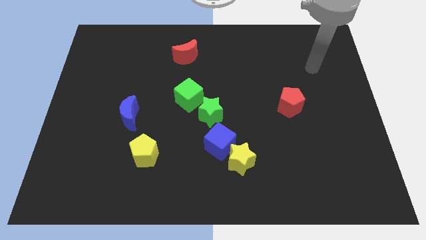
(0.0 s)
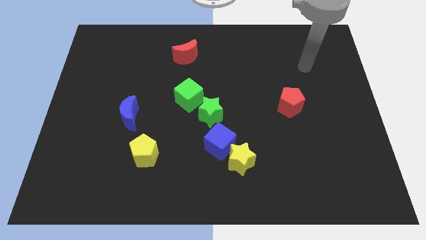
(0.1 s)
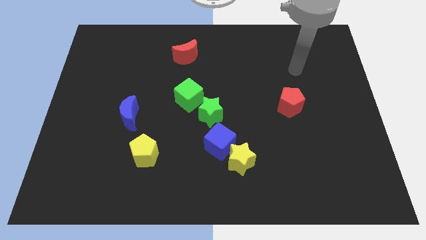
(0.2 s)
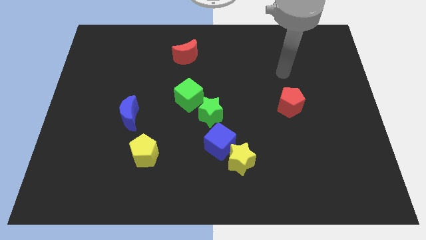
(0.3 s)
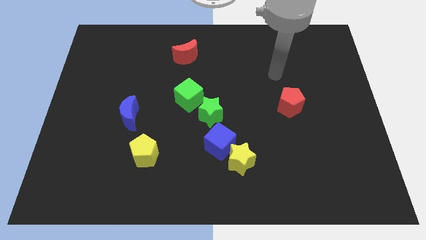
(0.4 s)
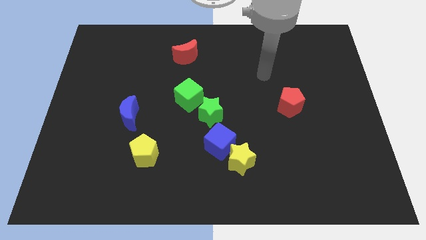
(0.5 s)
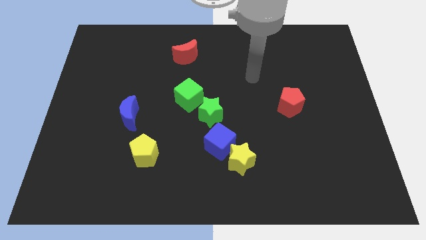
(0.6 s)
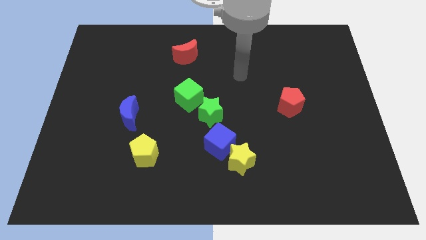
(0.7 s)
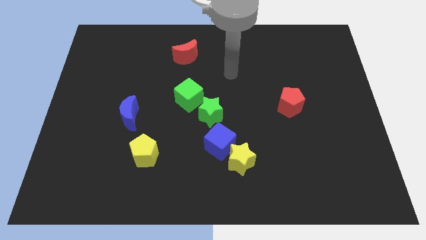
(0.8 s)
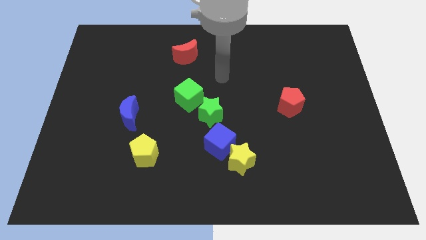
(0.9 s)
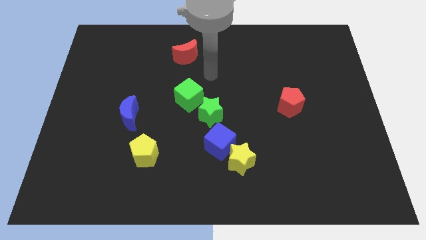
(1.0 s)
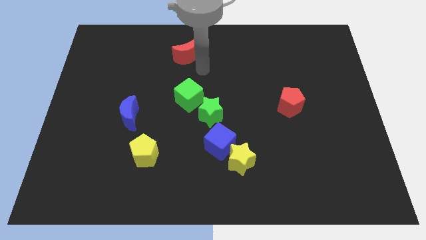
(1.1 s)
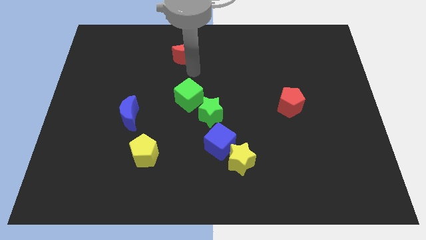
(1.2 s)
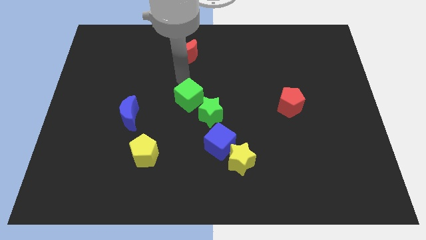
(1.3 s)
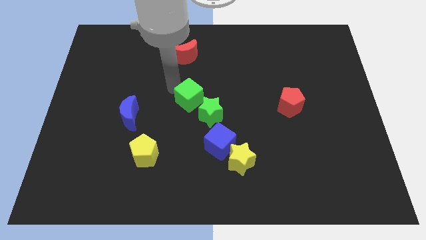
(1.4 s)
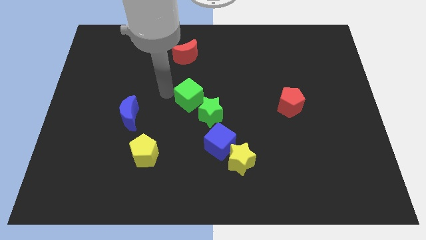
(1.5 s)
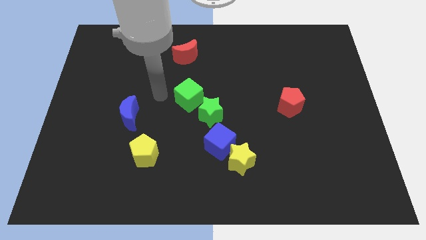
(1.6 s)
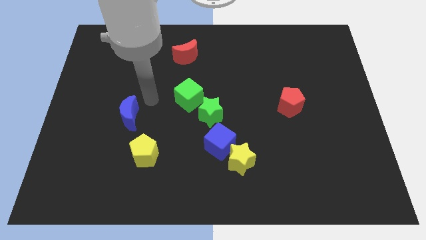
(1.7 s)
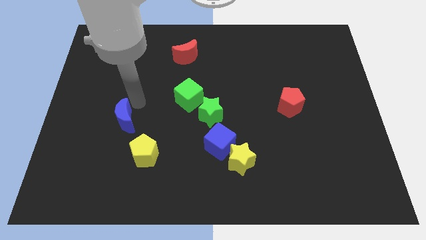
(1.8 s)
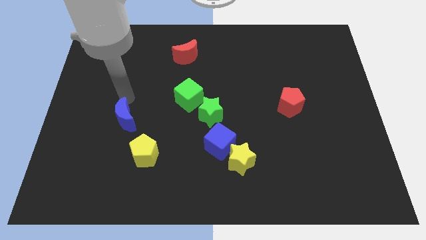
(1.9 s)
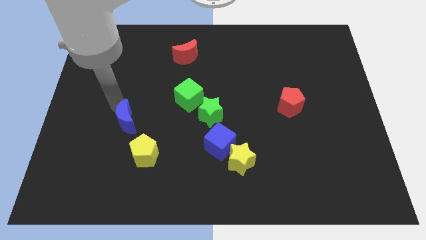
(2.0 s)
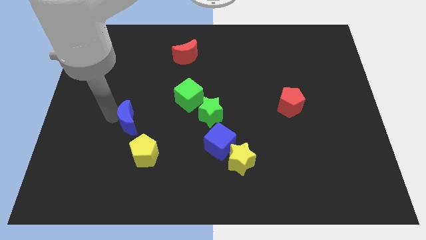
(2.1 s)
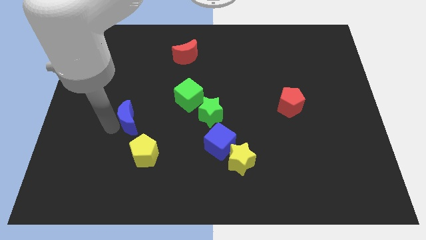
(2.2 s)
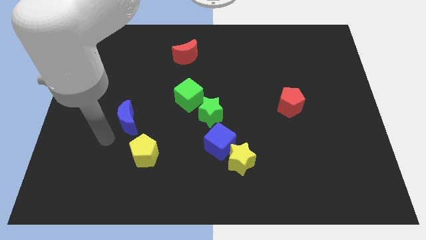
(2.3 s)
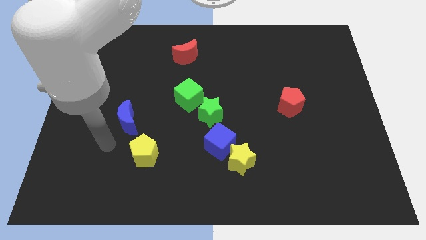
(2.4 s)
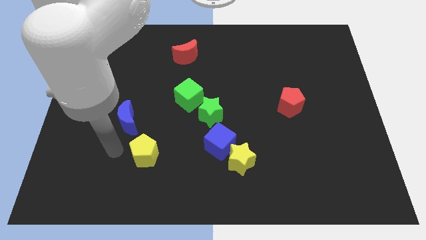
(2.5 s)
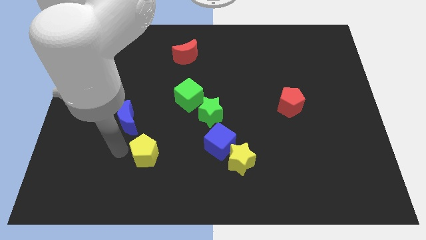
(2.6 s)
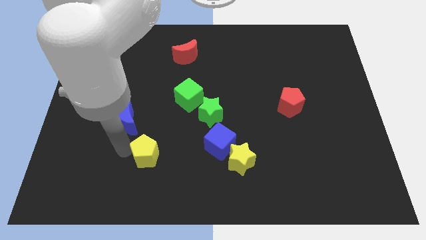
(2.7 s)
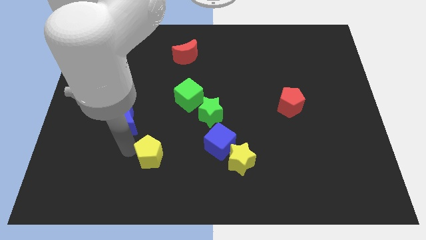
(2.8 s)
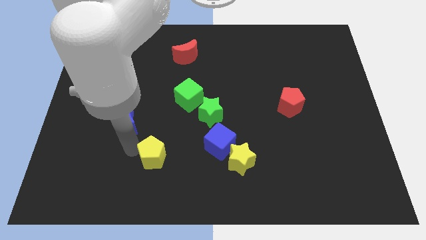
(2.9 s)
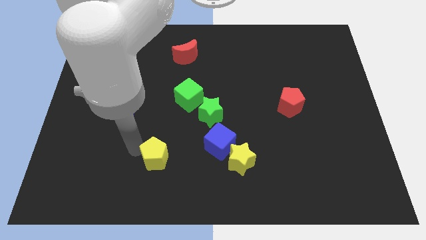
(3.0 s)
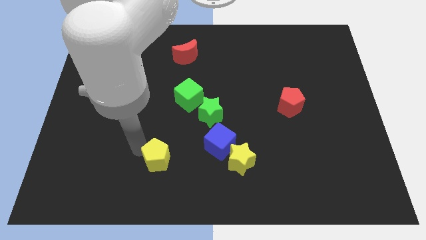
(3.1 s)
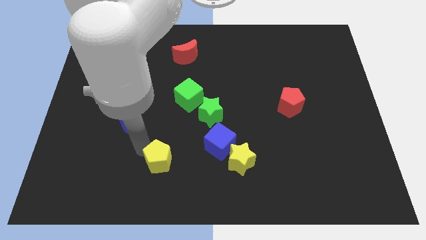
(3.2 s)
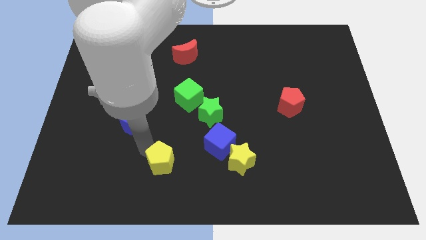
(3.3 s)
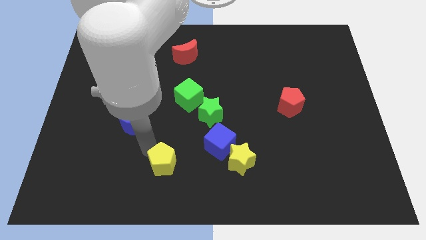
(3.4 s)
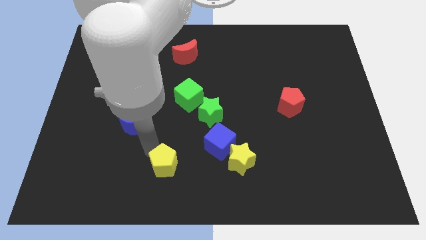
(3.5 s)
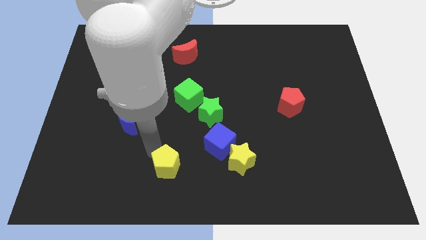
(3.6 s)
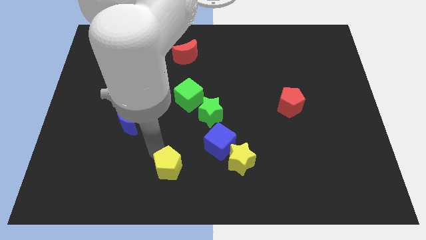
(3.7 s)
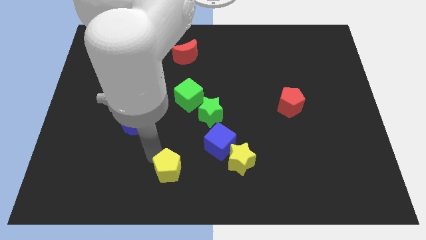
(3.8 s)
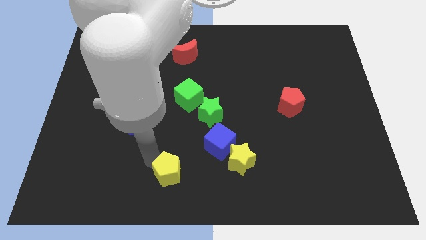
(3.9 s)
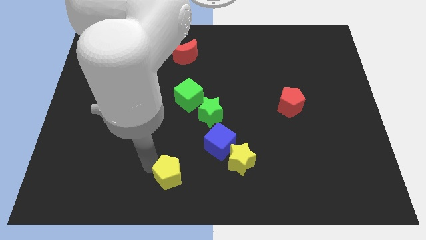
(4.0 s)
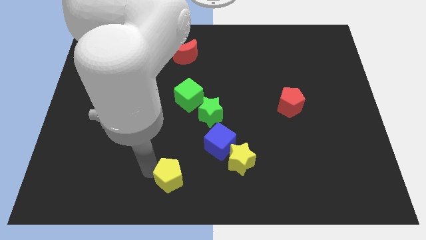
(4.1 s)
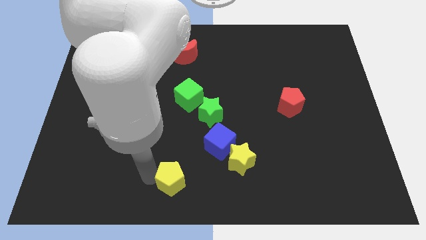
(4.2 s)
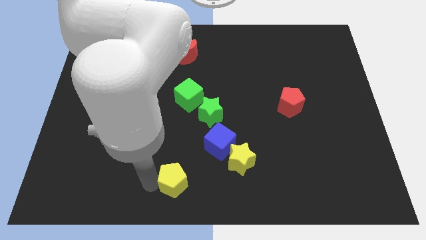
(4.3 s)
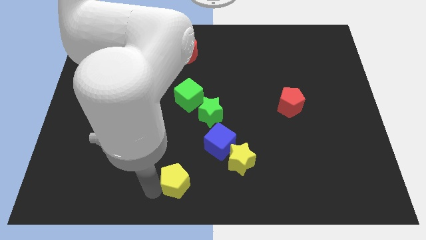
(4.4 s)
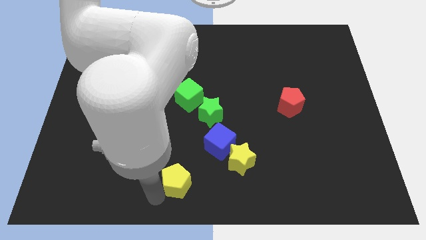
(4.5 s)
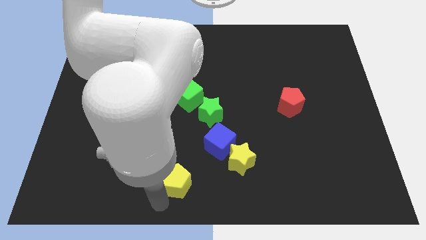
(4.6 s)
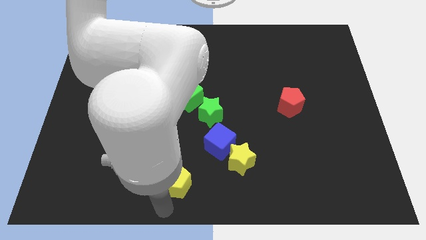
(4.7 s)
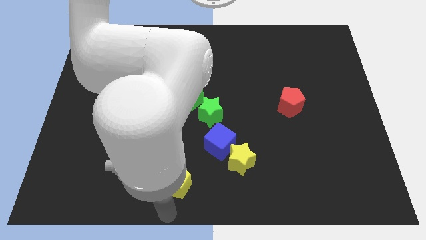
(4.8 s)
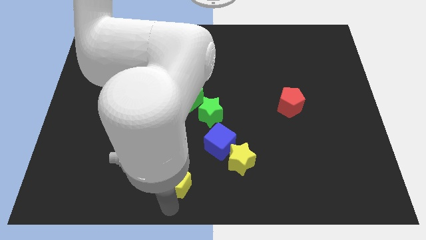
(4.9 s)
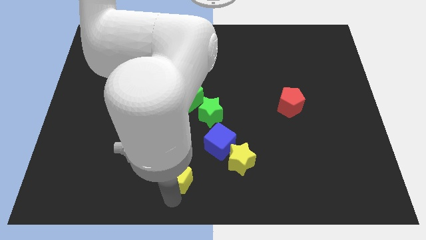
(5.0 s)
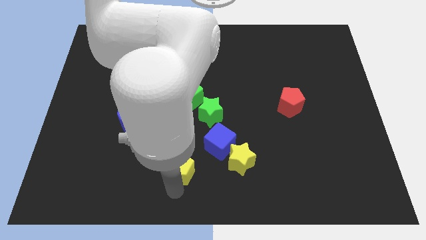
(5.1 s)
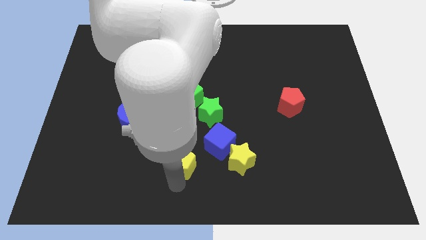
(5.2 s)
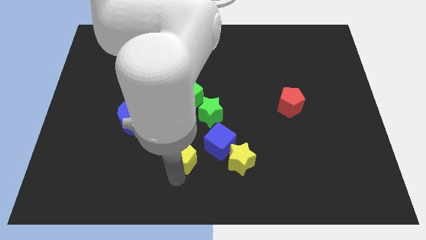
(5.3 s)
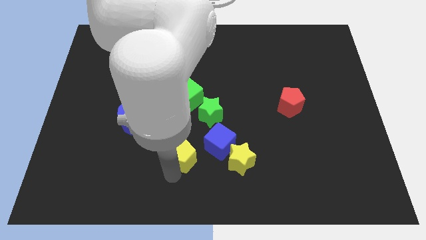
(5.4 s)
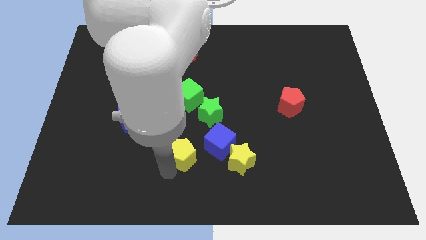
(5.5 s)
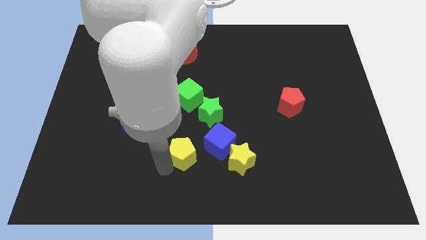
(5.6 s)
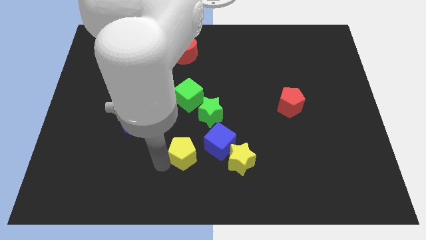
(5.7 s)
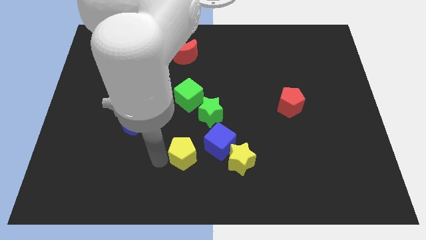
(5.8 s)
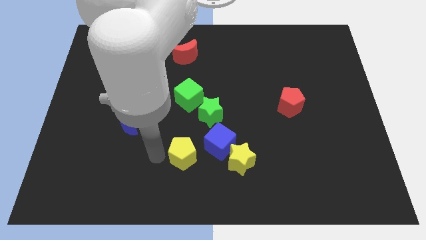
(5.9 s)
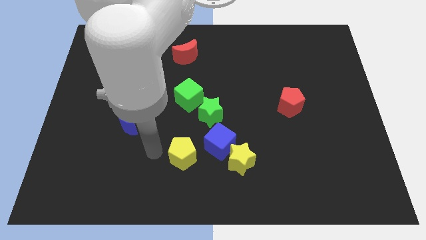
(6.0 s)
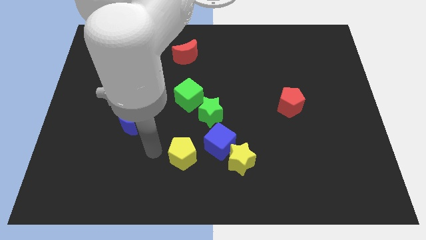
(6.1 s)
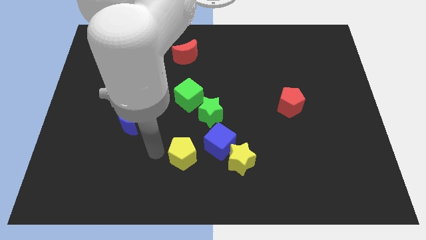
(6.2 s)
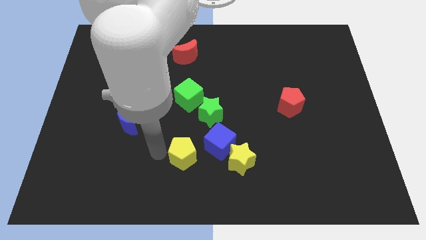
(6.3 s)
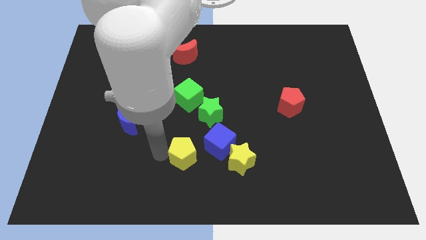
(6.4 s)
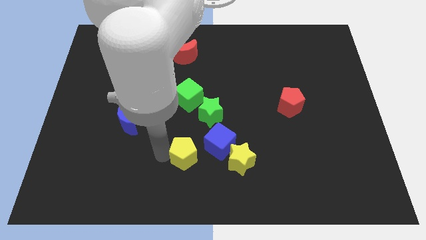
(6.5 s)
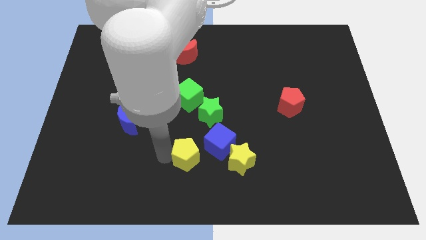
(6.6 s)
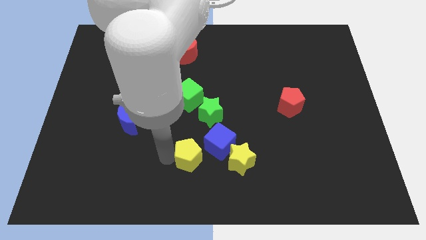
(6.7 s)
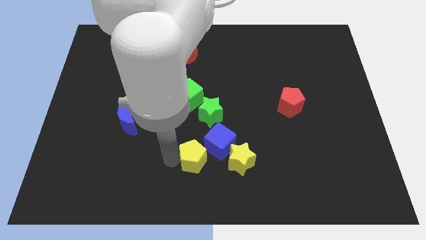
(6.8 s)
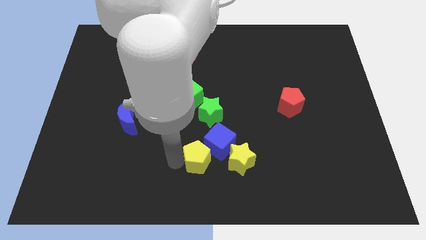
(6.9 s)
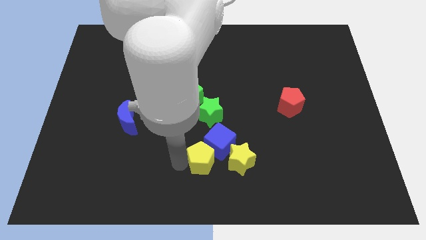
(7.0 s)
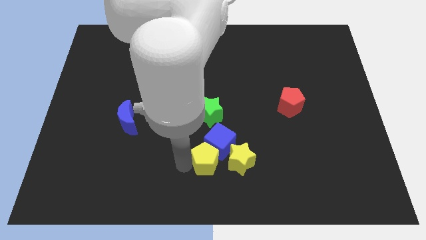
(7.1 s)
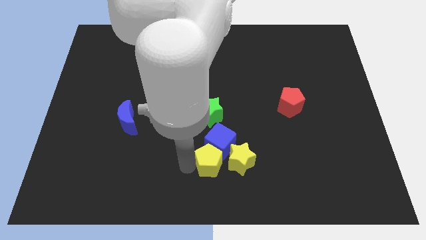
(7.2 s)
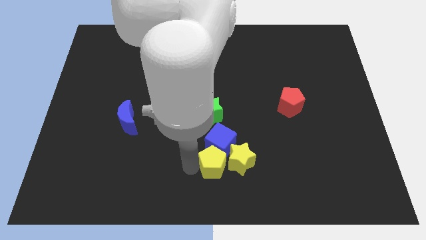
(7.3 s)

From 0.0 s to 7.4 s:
slide the yellow pentagon to the yellow star

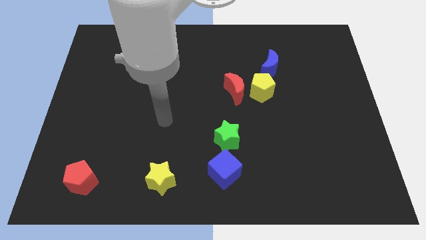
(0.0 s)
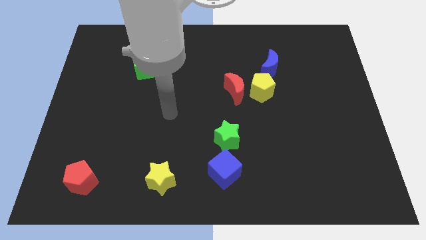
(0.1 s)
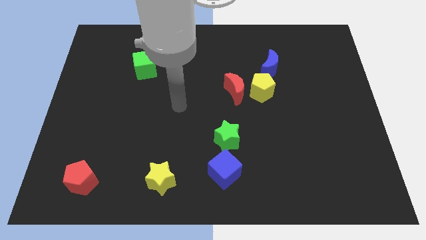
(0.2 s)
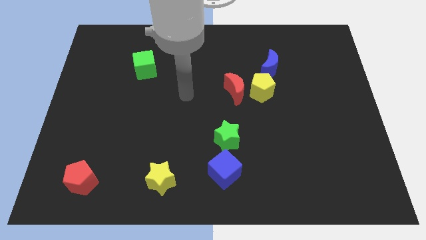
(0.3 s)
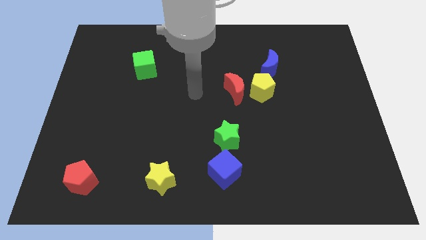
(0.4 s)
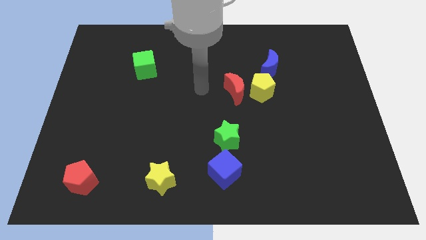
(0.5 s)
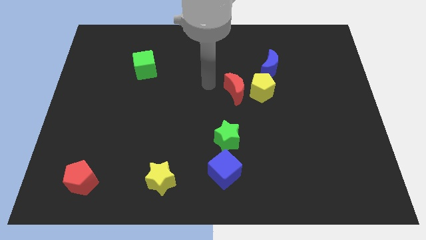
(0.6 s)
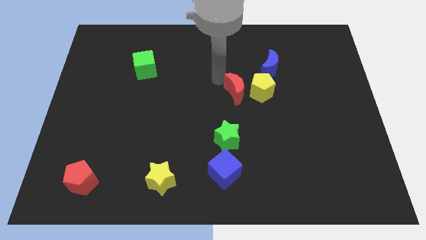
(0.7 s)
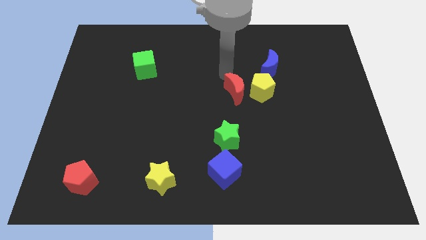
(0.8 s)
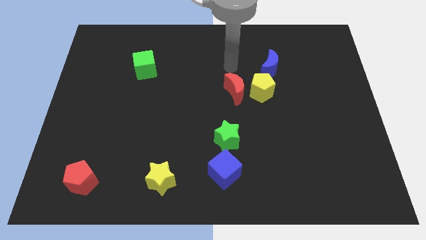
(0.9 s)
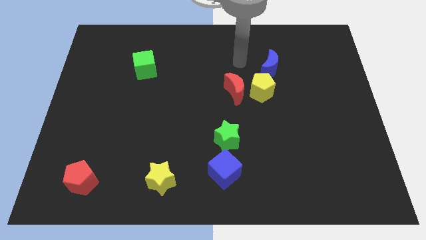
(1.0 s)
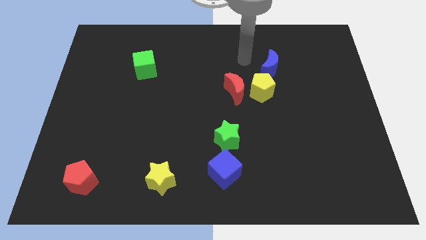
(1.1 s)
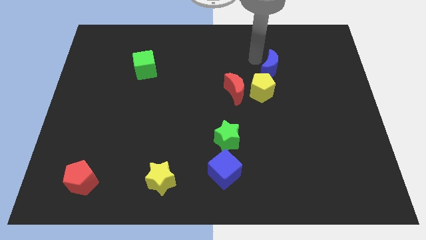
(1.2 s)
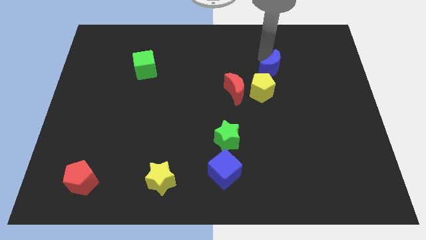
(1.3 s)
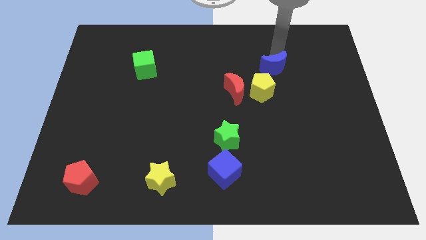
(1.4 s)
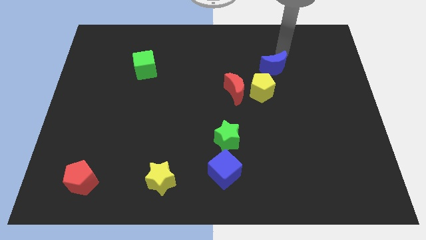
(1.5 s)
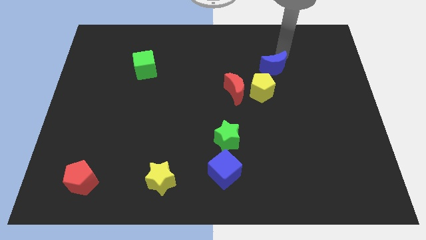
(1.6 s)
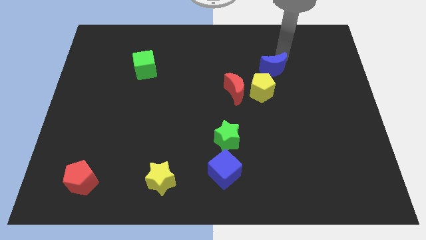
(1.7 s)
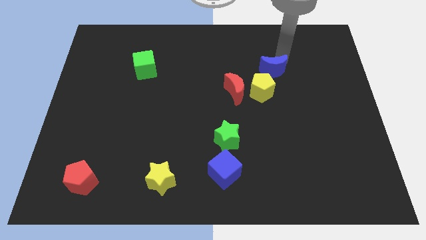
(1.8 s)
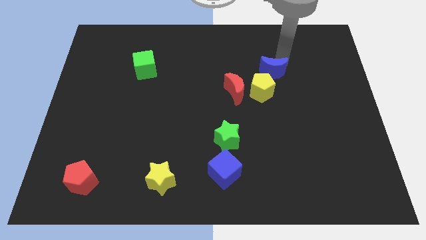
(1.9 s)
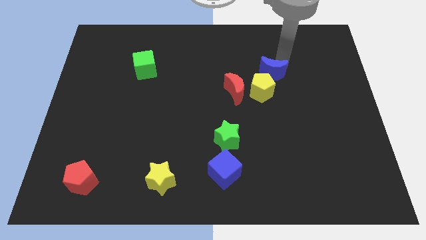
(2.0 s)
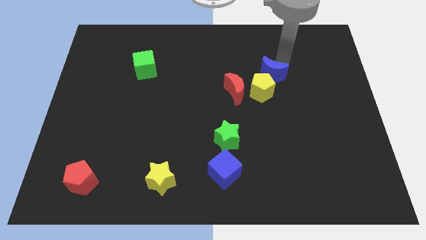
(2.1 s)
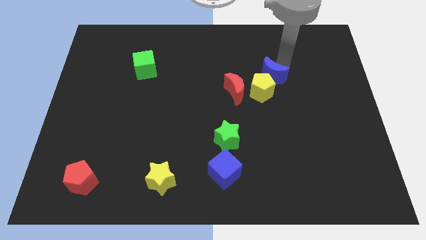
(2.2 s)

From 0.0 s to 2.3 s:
move the blue moon close to the yellow pentagon
